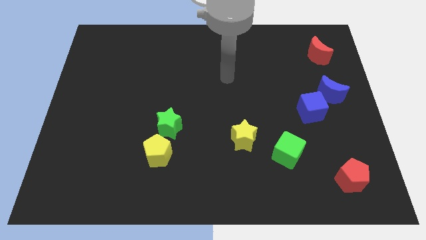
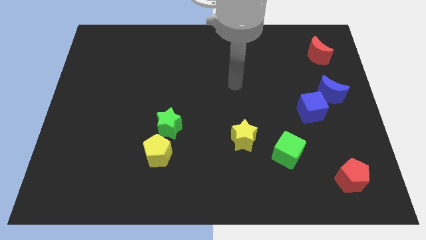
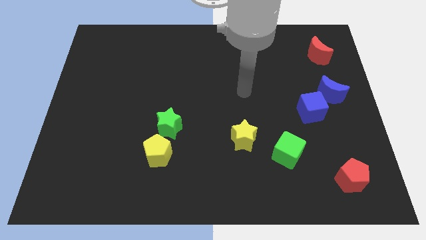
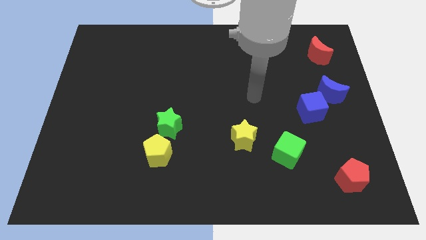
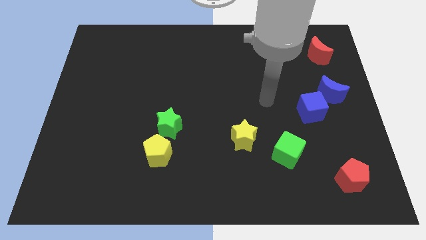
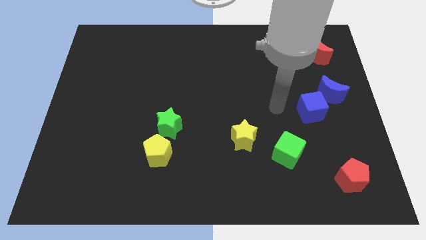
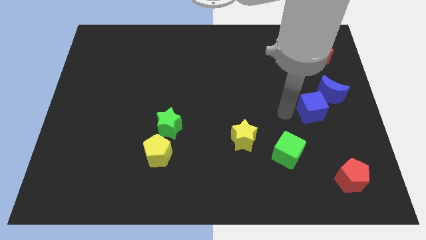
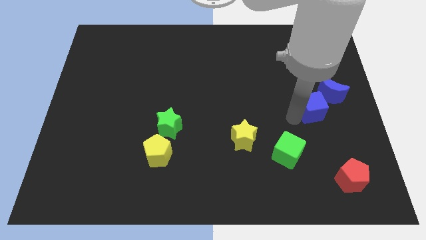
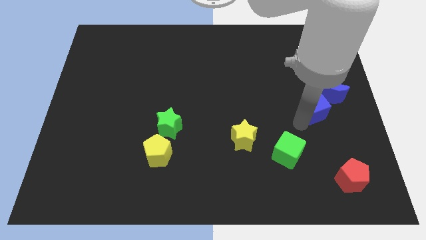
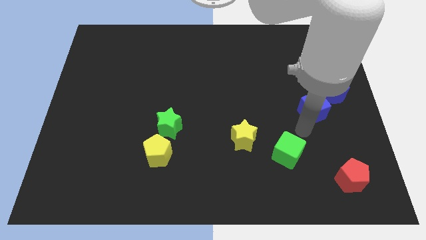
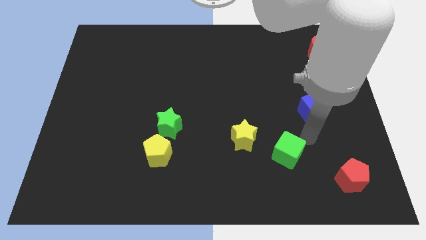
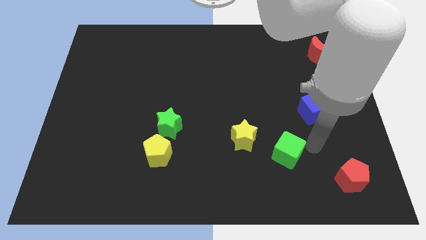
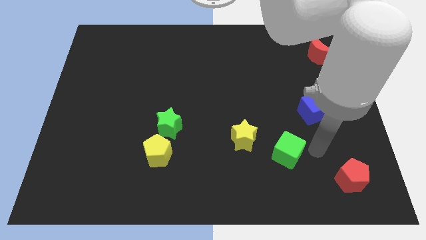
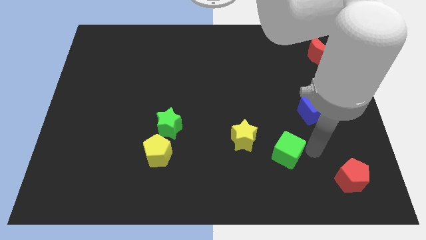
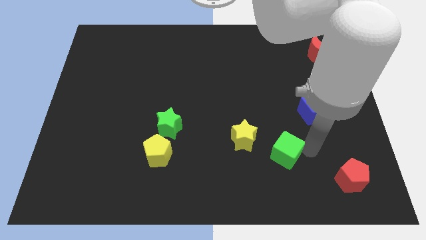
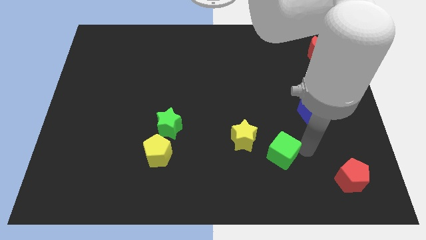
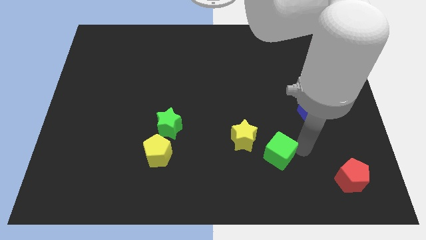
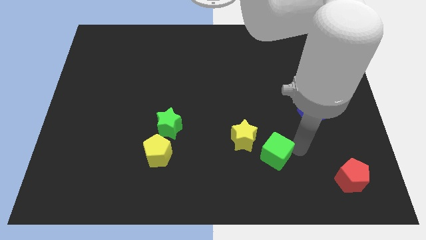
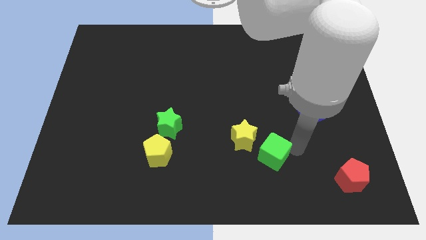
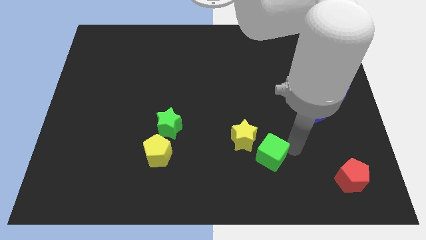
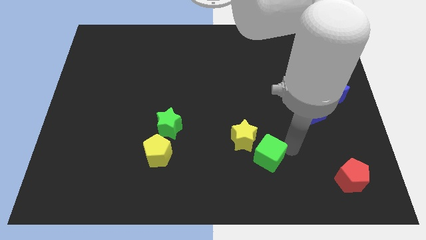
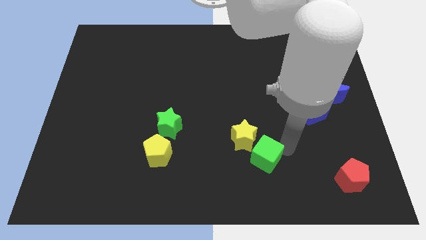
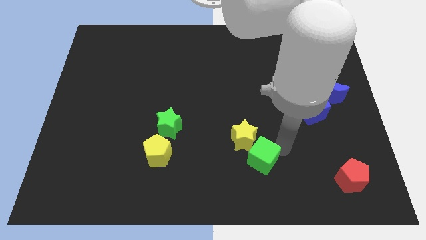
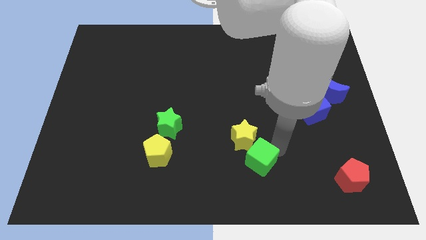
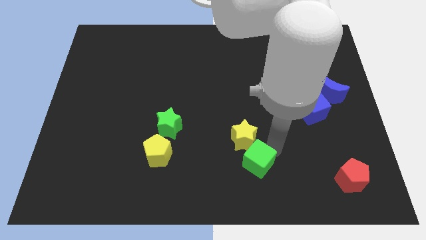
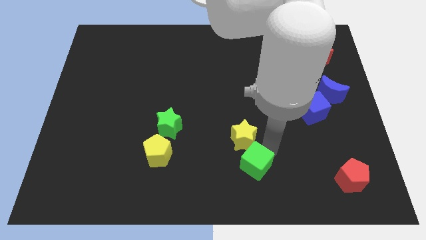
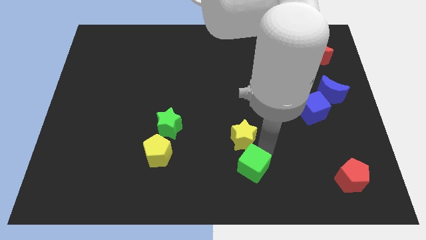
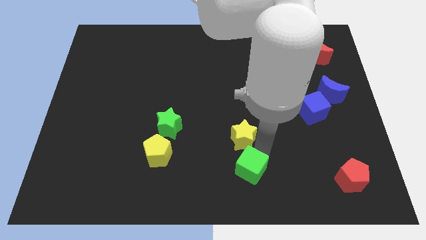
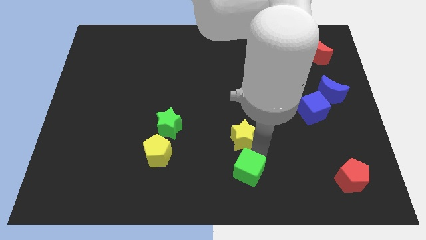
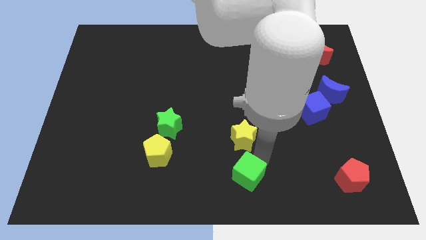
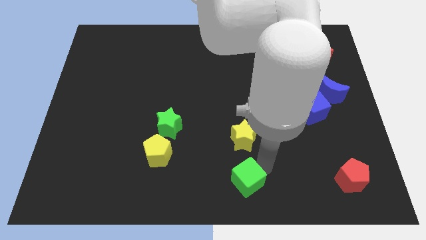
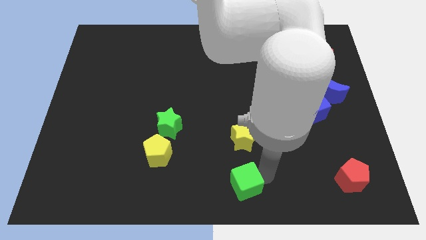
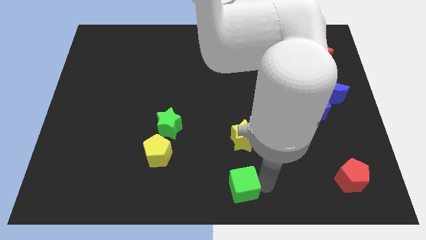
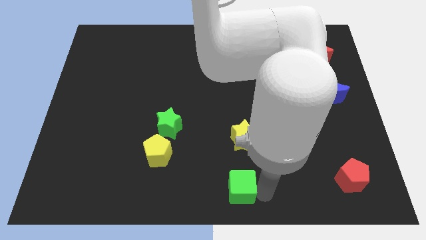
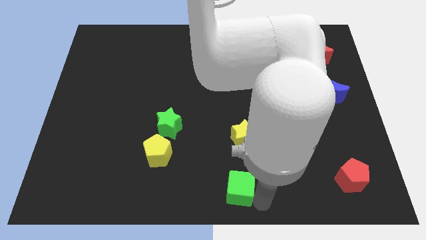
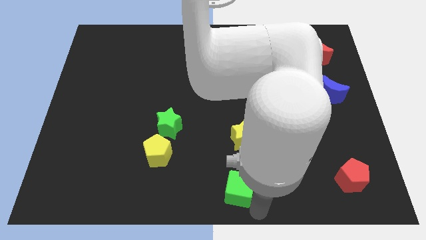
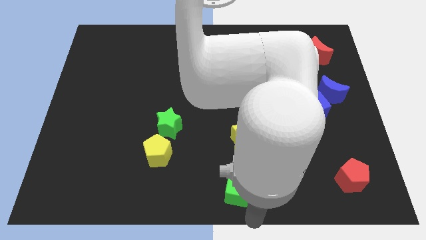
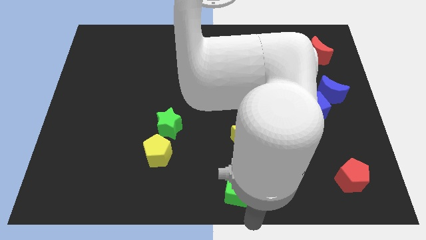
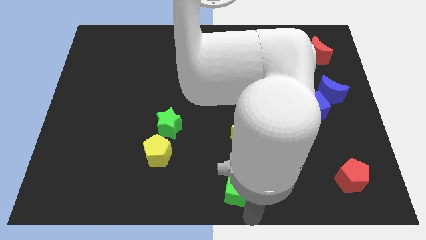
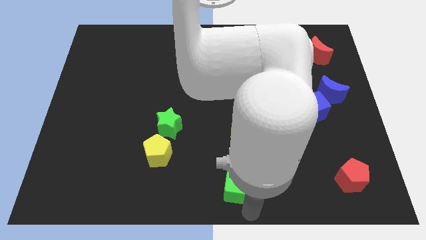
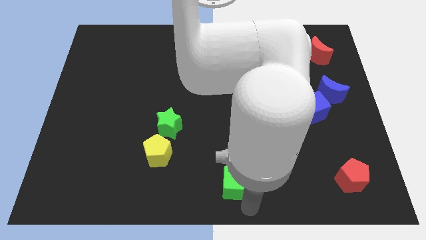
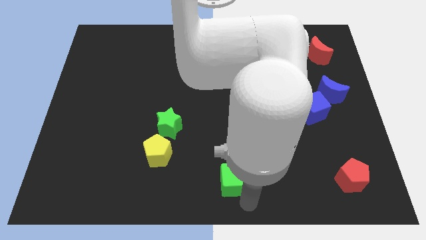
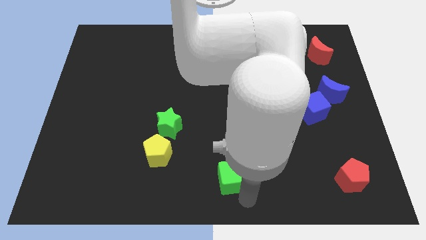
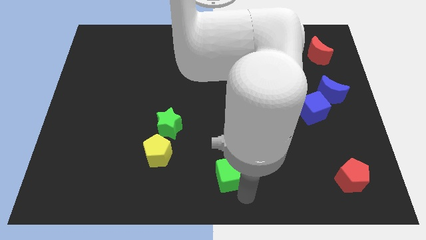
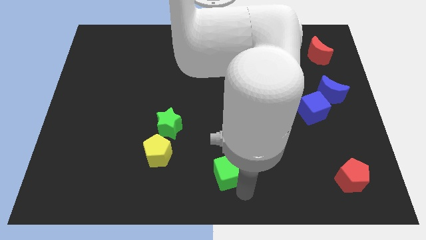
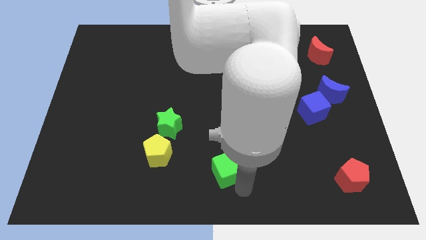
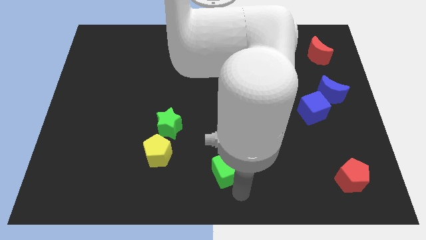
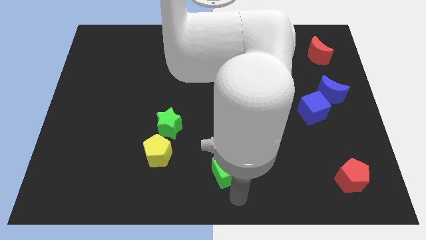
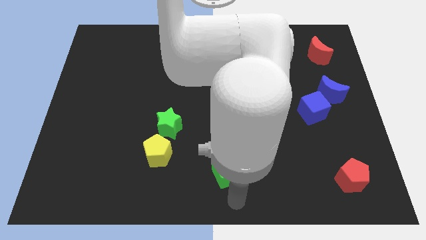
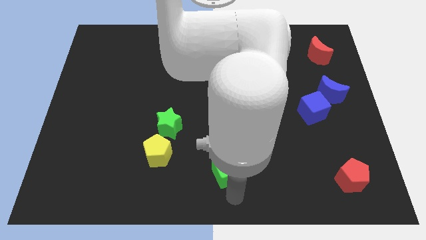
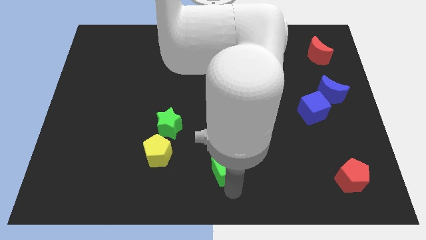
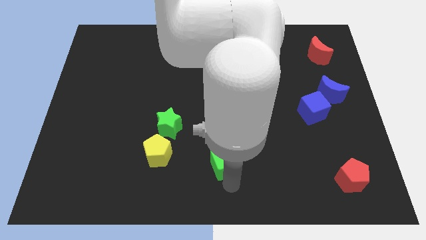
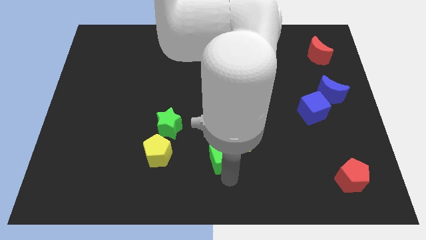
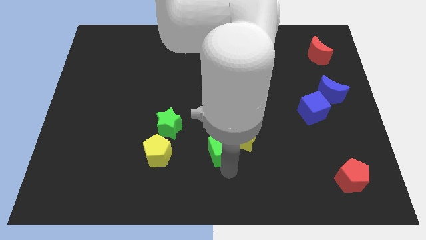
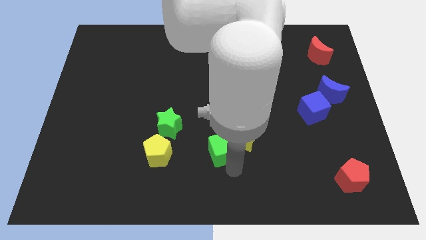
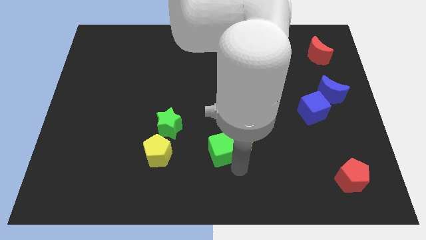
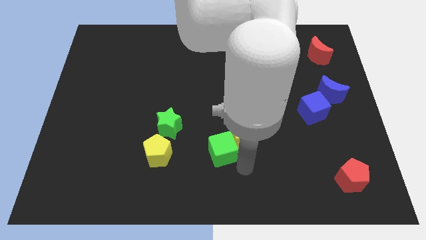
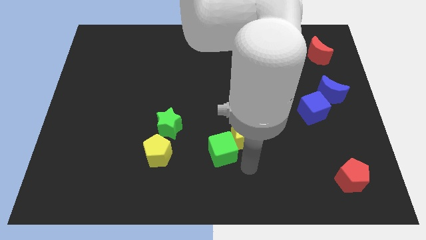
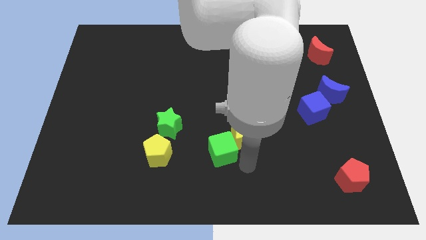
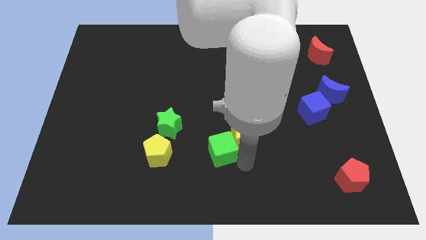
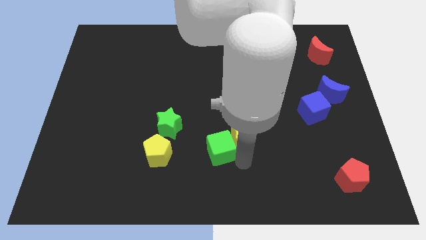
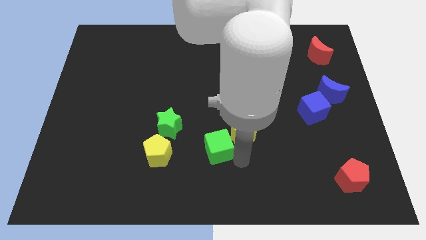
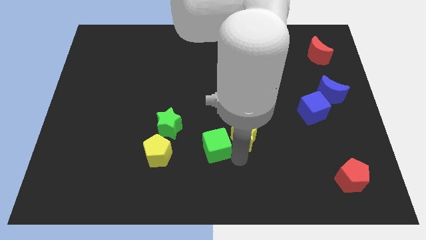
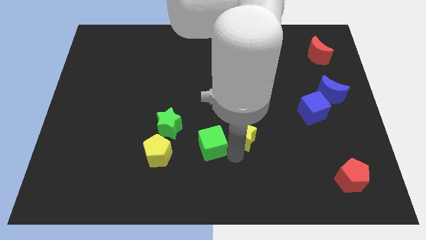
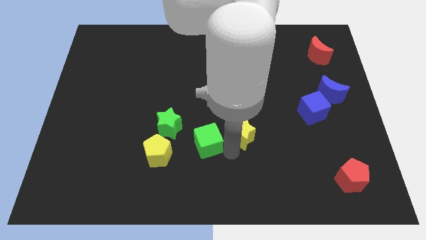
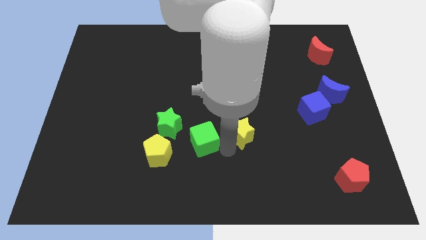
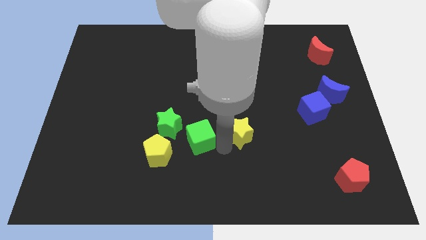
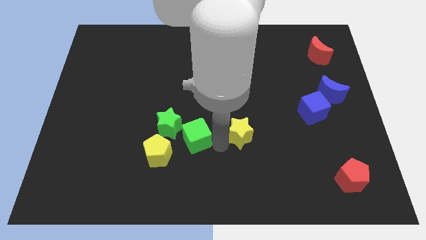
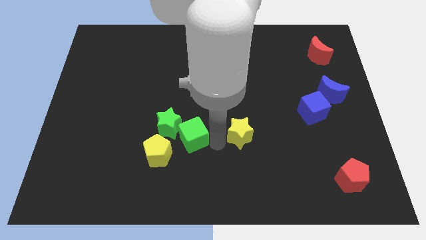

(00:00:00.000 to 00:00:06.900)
slide the green cube next to the green star
